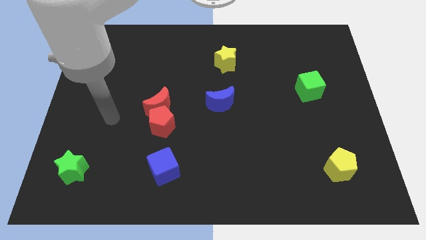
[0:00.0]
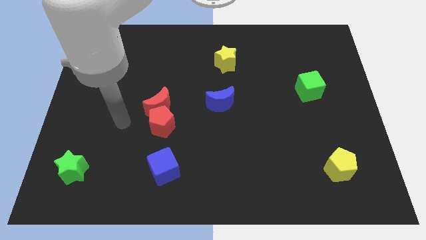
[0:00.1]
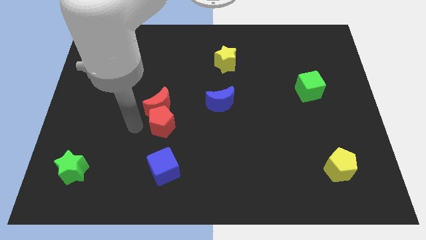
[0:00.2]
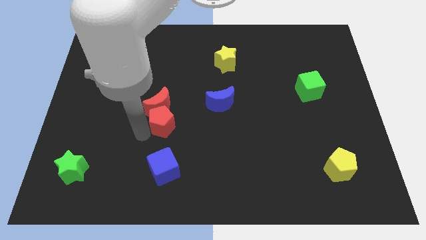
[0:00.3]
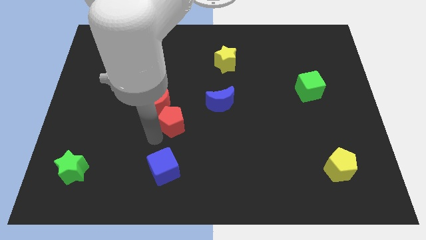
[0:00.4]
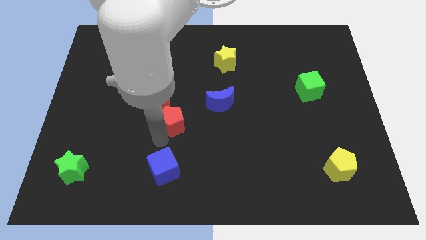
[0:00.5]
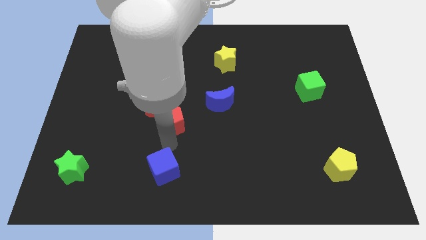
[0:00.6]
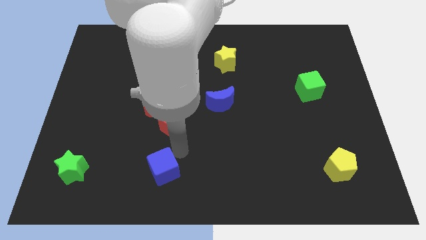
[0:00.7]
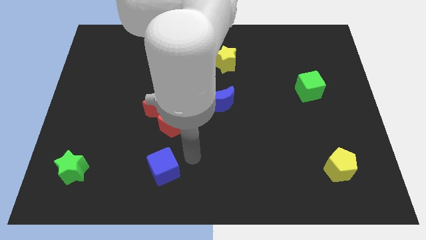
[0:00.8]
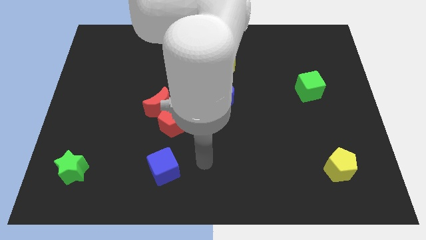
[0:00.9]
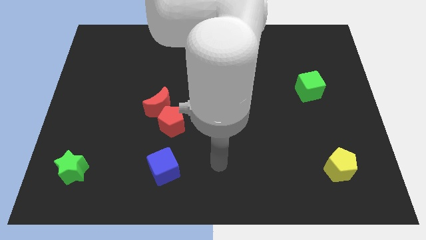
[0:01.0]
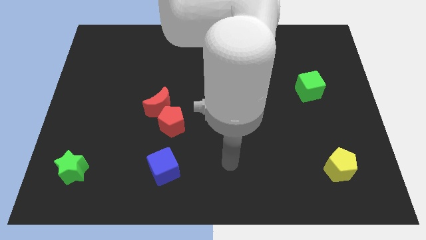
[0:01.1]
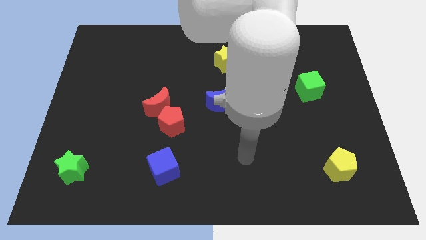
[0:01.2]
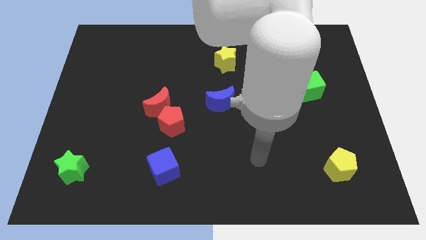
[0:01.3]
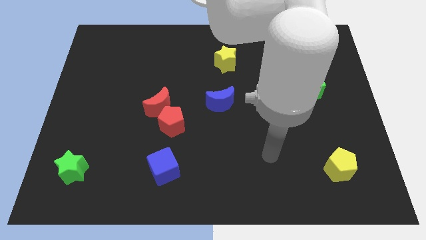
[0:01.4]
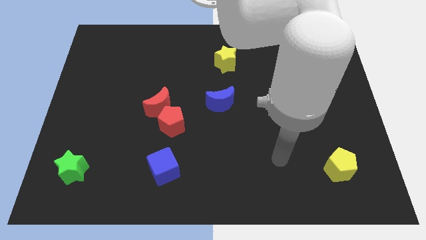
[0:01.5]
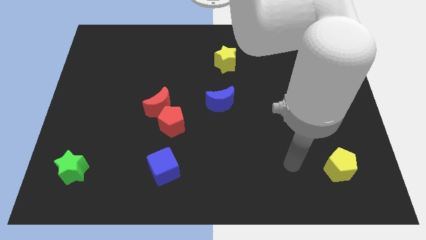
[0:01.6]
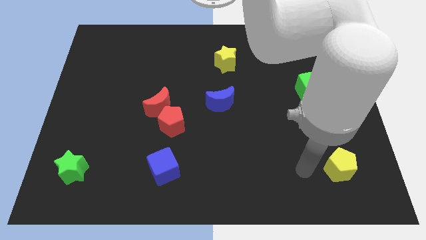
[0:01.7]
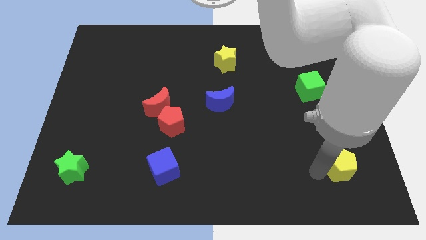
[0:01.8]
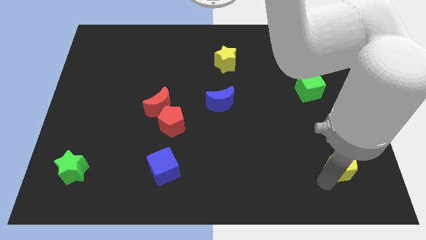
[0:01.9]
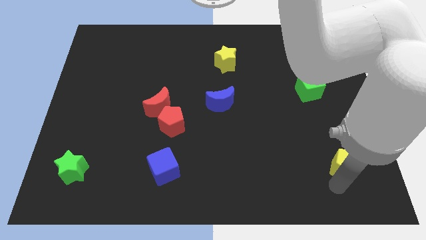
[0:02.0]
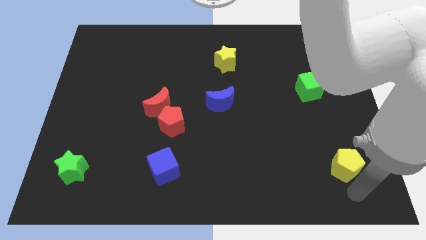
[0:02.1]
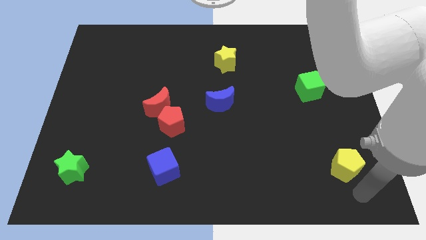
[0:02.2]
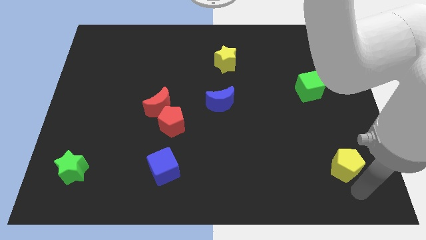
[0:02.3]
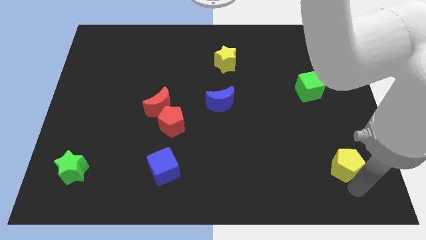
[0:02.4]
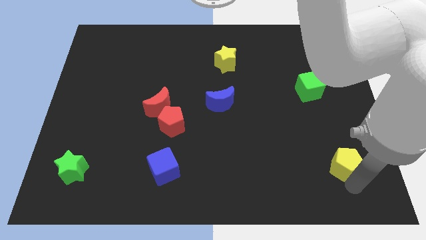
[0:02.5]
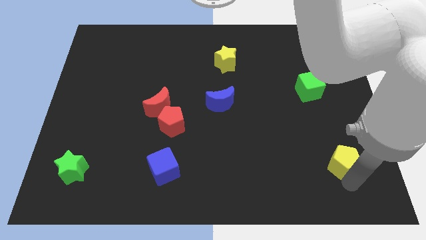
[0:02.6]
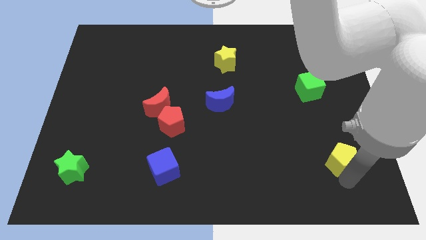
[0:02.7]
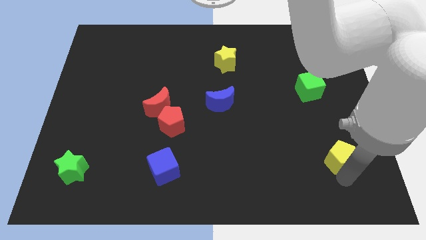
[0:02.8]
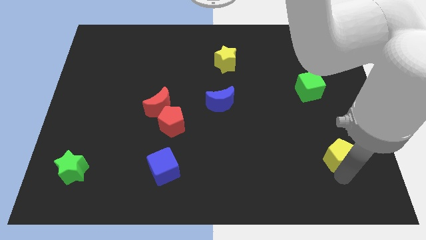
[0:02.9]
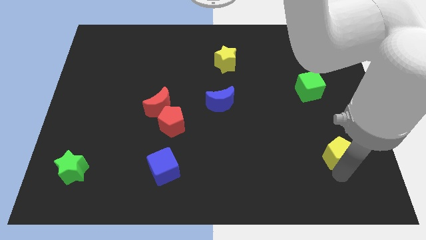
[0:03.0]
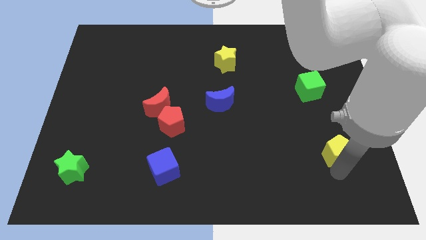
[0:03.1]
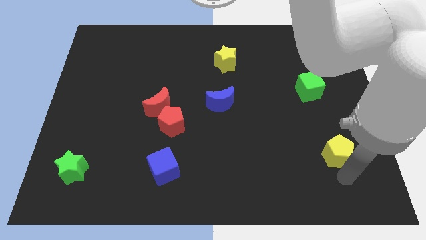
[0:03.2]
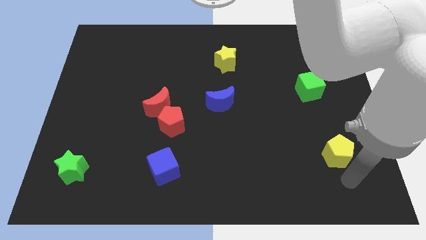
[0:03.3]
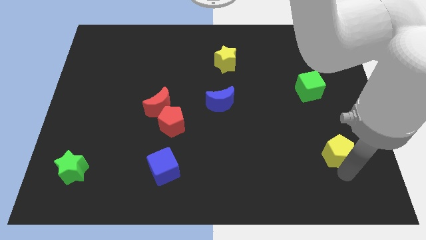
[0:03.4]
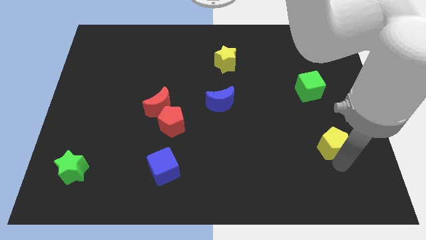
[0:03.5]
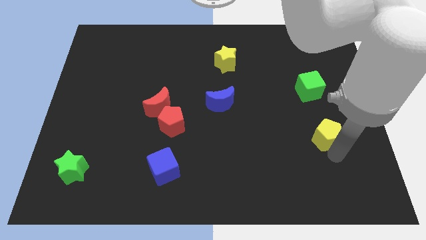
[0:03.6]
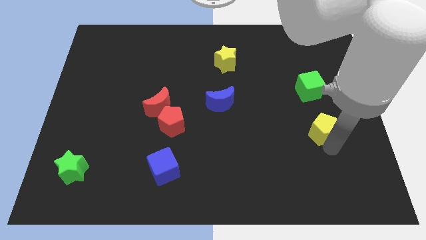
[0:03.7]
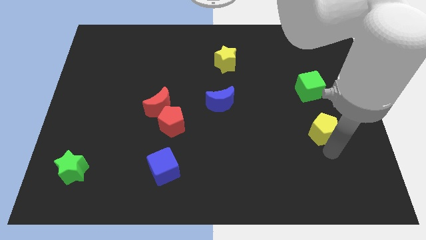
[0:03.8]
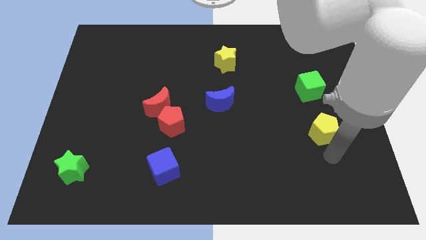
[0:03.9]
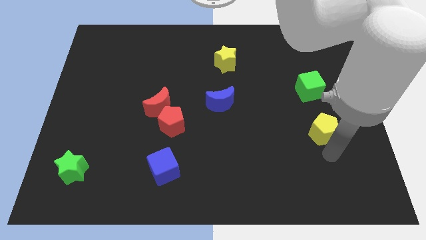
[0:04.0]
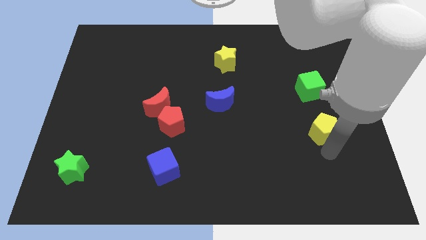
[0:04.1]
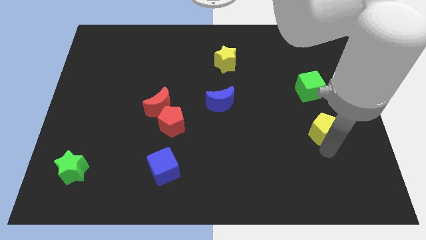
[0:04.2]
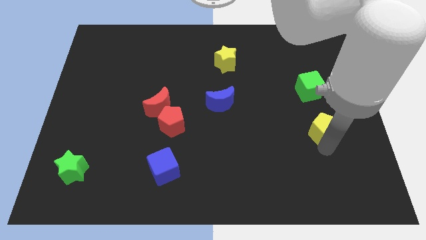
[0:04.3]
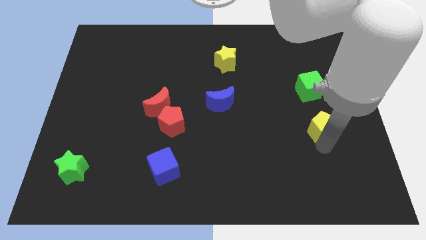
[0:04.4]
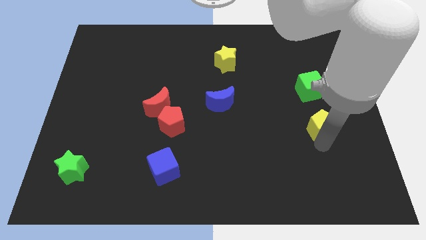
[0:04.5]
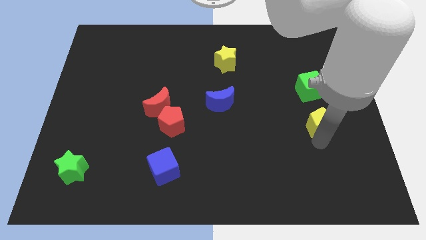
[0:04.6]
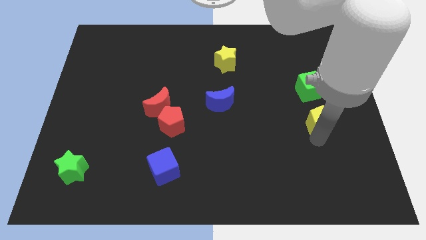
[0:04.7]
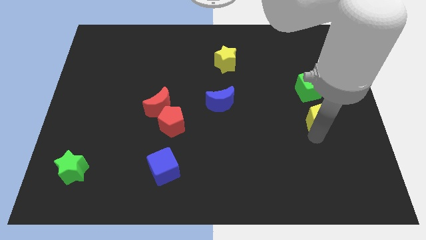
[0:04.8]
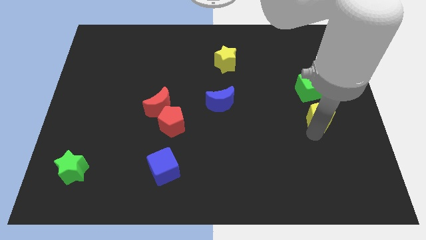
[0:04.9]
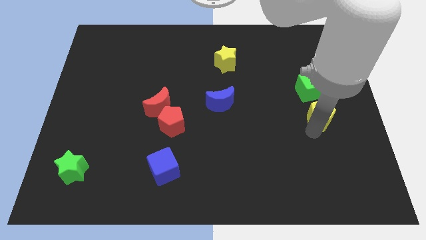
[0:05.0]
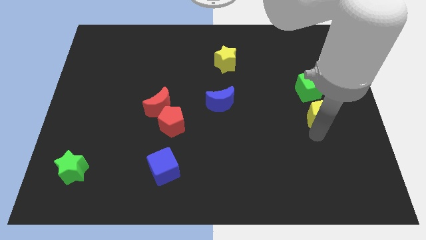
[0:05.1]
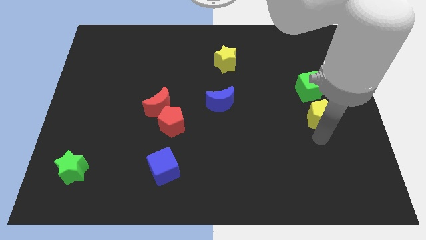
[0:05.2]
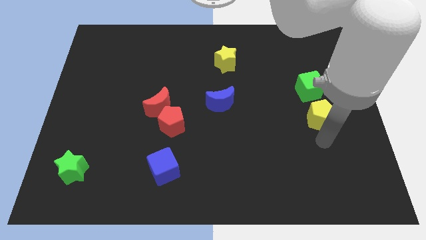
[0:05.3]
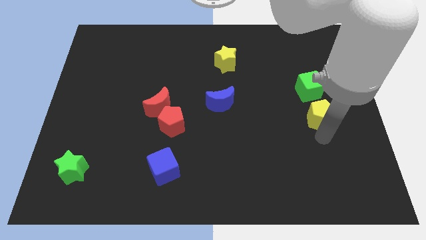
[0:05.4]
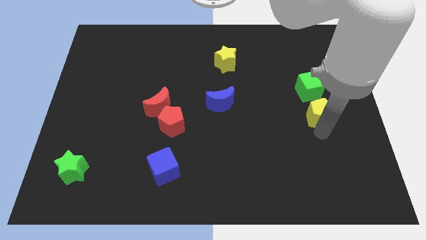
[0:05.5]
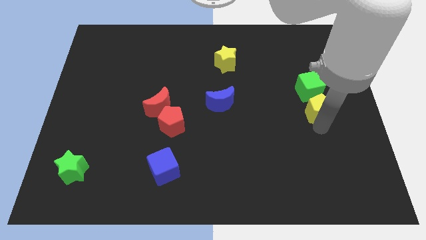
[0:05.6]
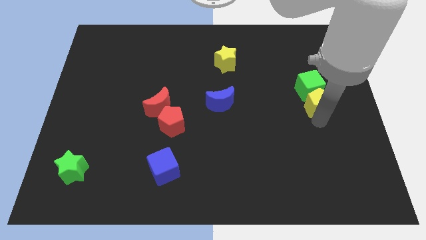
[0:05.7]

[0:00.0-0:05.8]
move the yellow pentagon next to the green cube

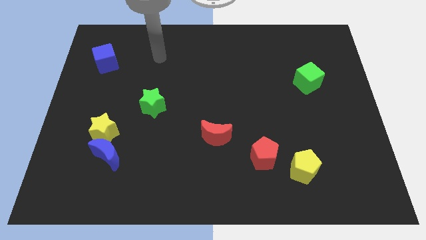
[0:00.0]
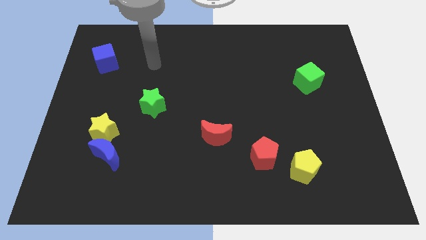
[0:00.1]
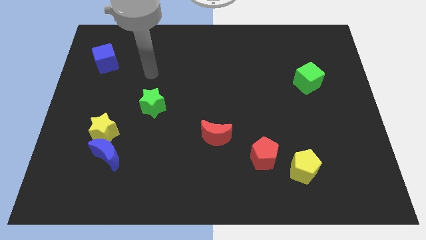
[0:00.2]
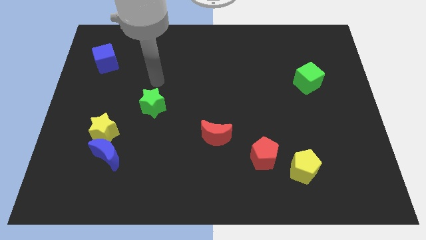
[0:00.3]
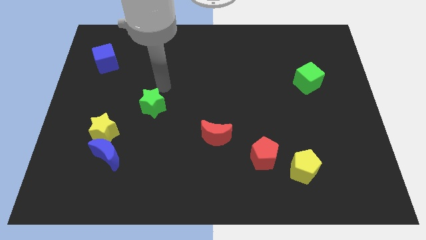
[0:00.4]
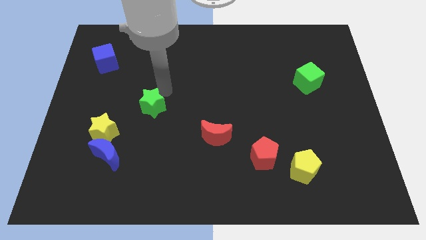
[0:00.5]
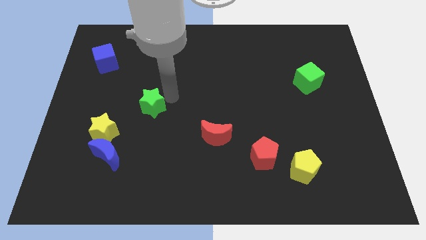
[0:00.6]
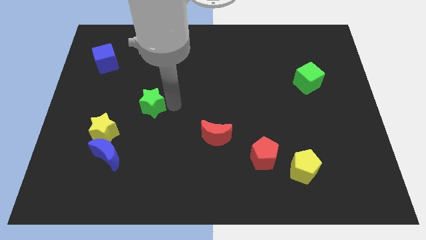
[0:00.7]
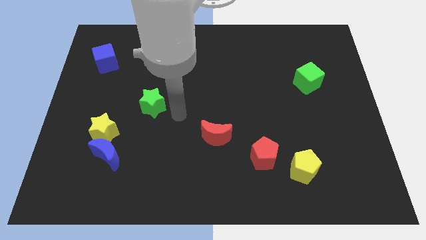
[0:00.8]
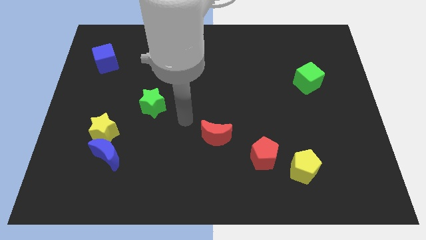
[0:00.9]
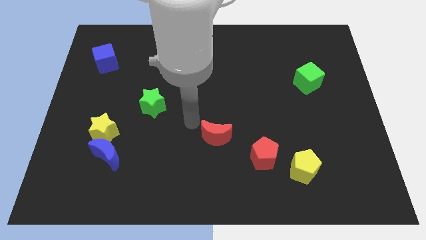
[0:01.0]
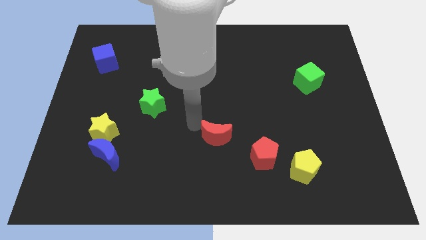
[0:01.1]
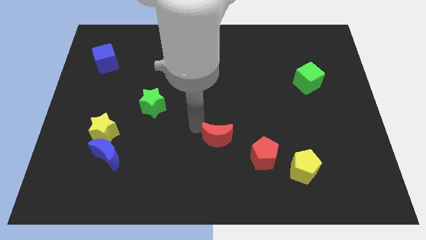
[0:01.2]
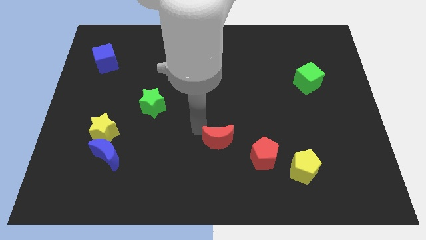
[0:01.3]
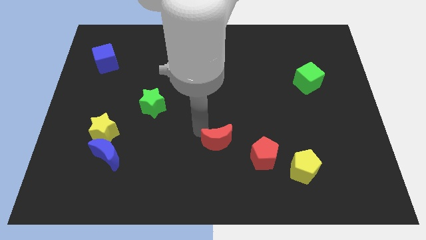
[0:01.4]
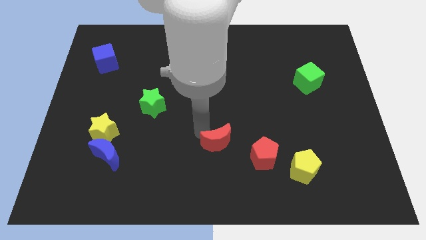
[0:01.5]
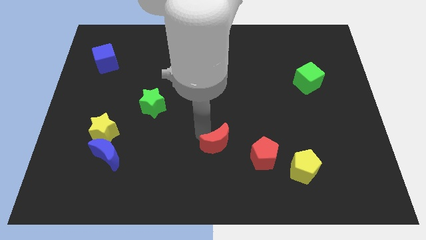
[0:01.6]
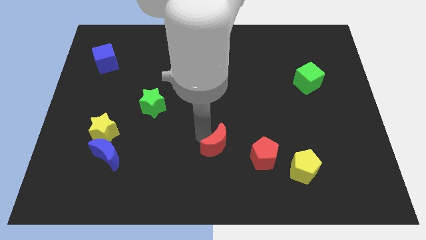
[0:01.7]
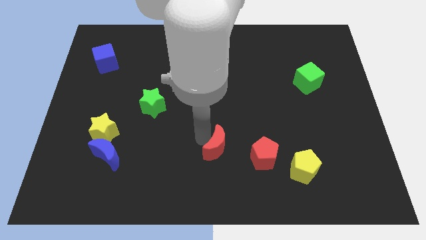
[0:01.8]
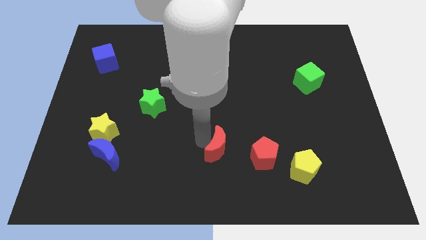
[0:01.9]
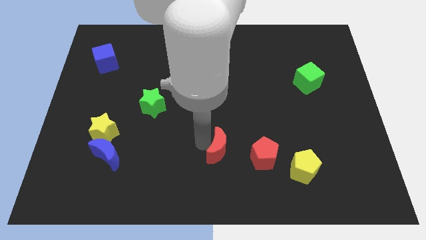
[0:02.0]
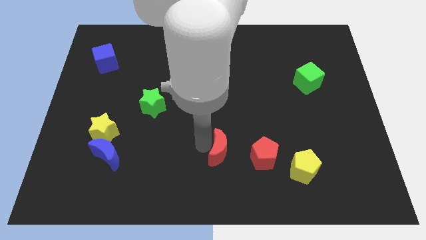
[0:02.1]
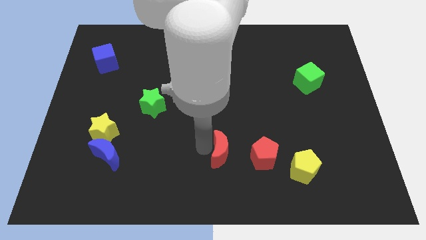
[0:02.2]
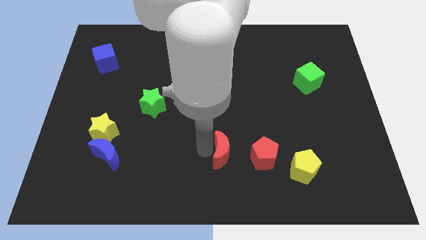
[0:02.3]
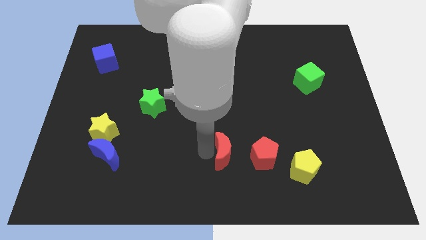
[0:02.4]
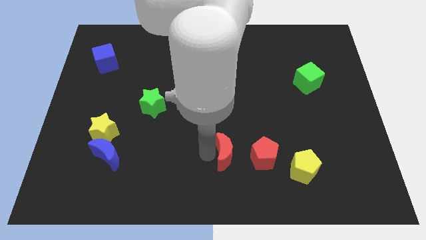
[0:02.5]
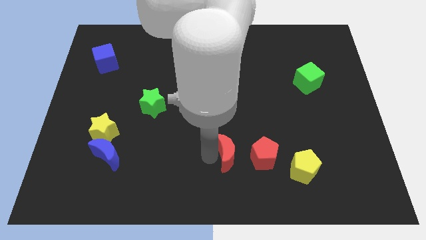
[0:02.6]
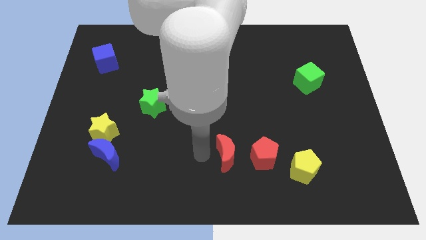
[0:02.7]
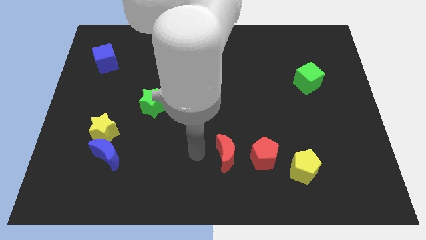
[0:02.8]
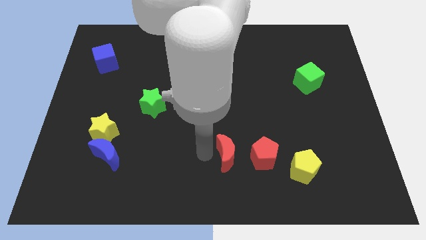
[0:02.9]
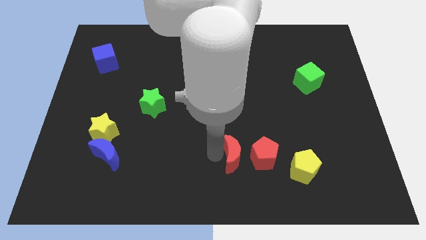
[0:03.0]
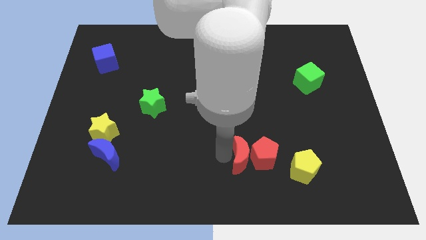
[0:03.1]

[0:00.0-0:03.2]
put the red moon towards the red pentagon
